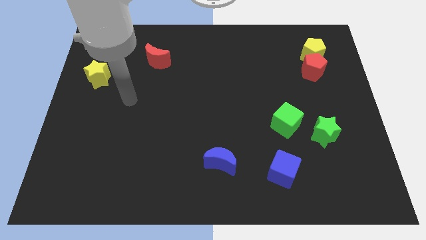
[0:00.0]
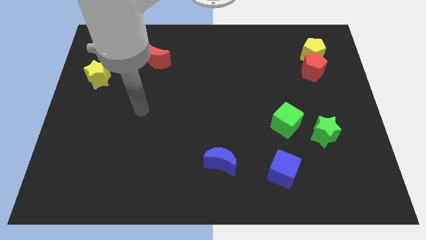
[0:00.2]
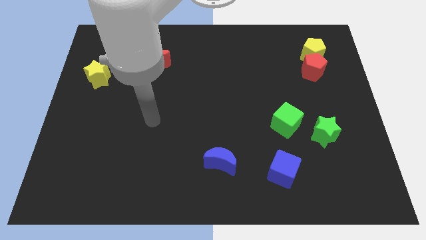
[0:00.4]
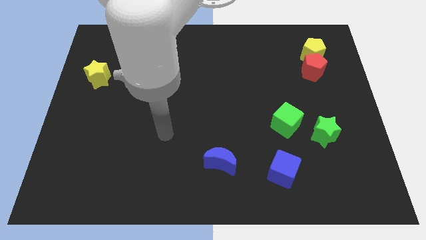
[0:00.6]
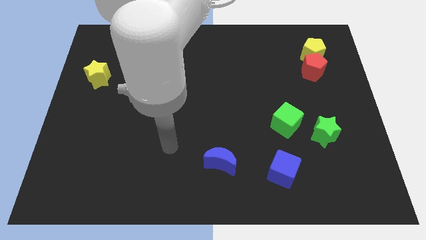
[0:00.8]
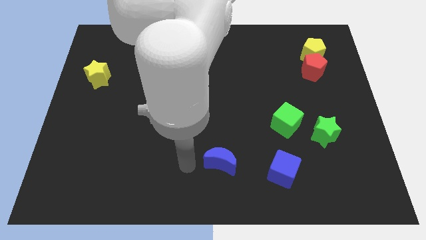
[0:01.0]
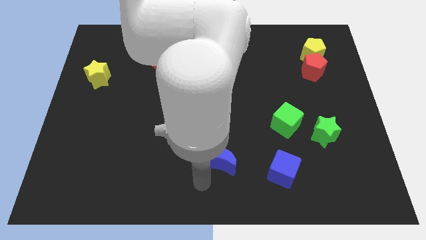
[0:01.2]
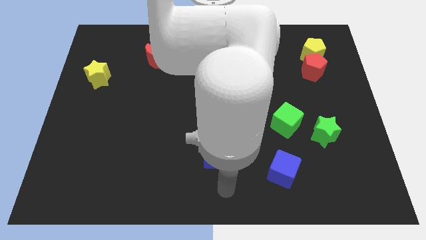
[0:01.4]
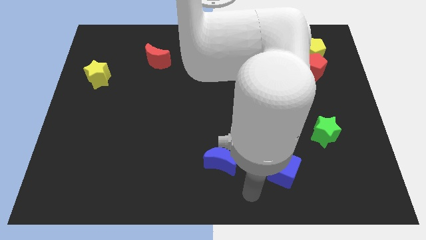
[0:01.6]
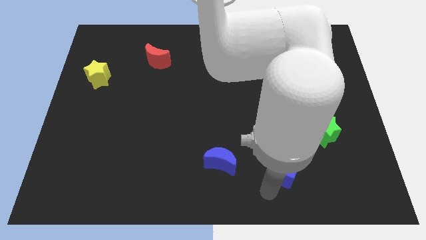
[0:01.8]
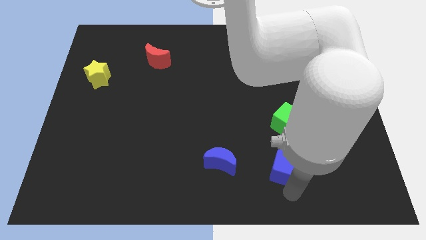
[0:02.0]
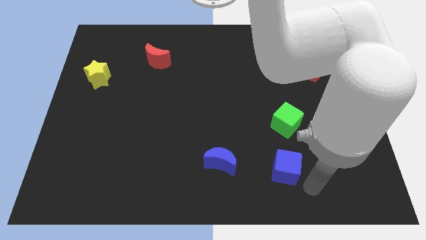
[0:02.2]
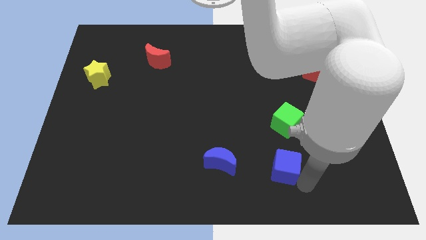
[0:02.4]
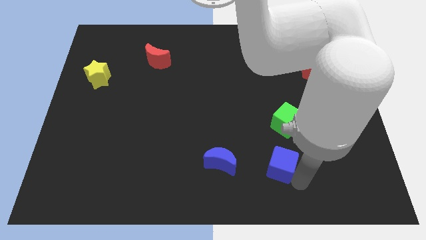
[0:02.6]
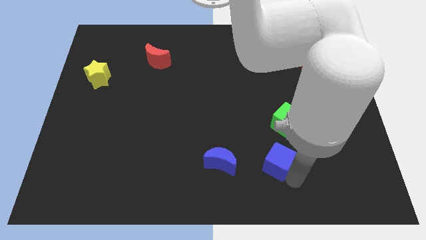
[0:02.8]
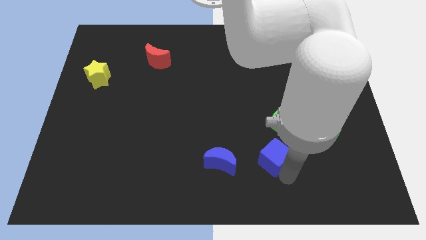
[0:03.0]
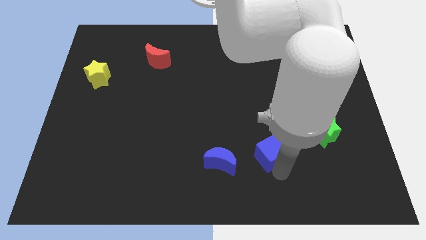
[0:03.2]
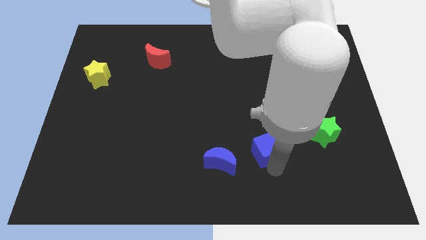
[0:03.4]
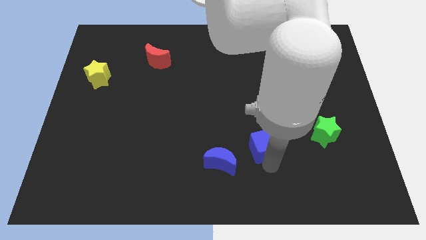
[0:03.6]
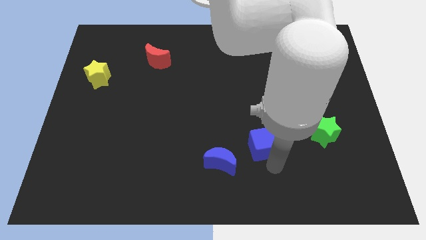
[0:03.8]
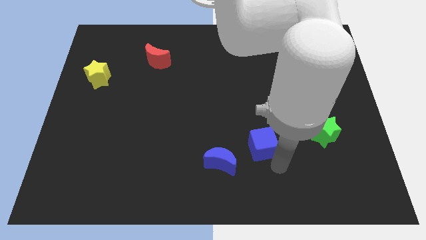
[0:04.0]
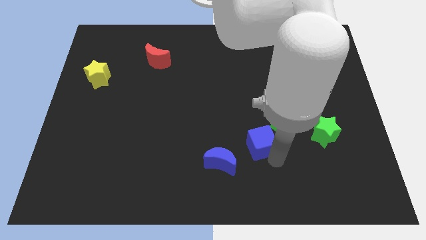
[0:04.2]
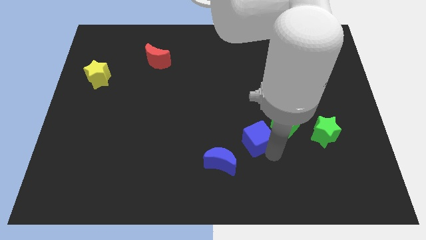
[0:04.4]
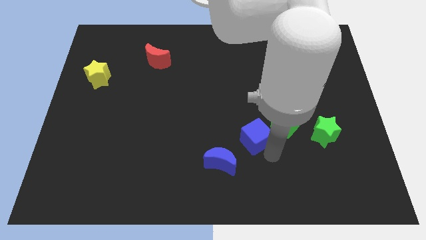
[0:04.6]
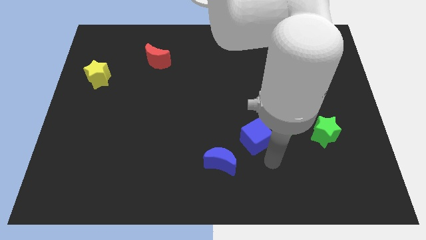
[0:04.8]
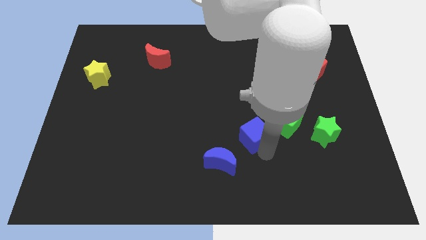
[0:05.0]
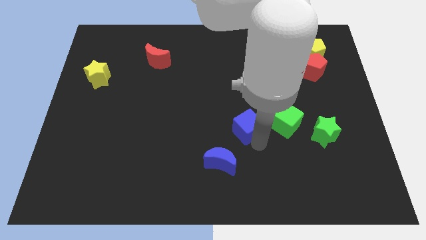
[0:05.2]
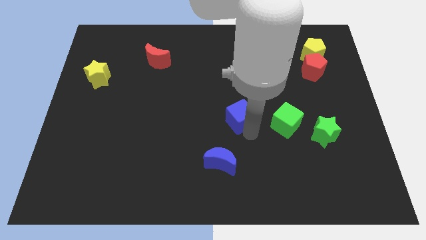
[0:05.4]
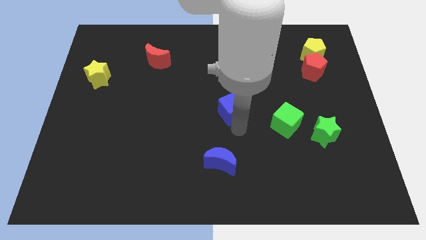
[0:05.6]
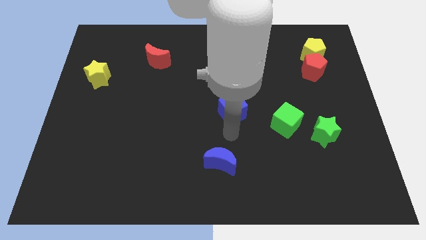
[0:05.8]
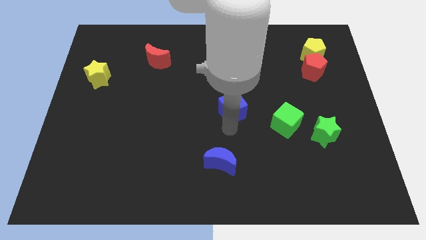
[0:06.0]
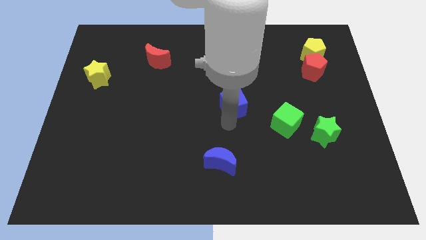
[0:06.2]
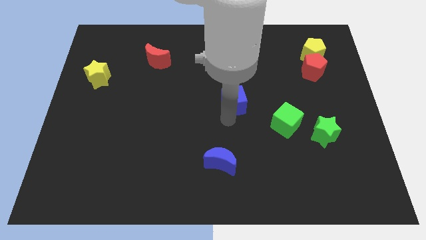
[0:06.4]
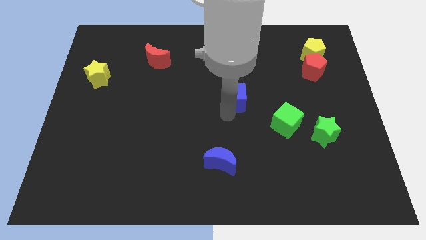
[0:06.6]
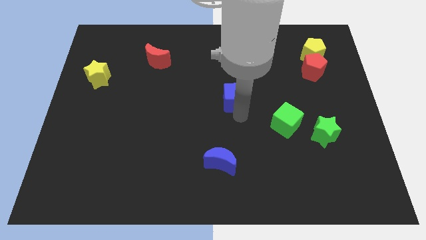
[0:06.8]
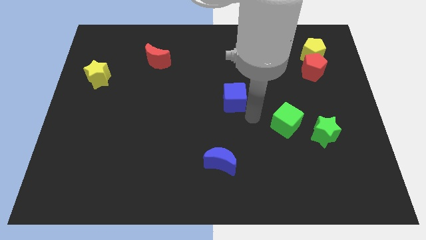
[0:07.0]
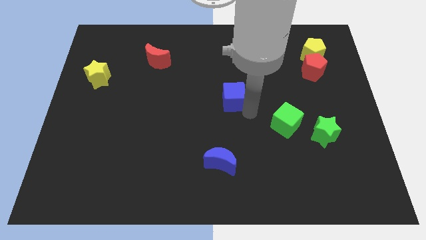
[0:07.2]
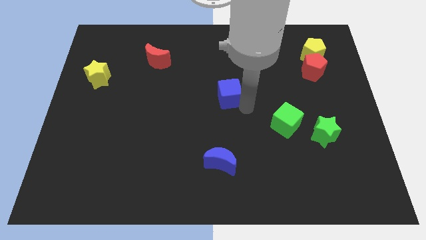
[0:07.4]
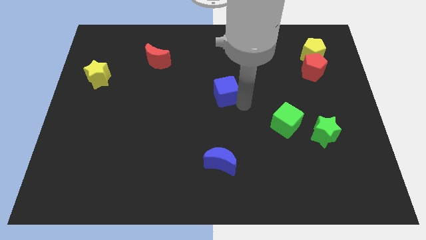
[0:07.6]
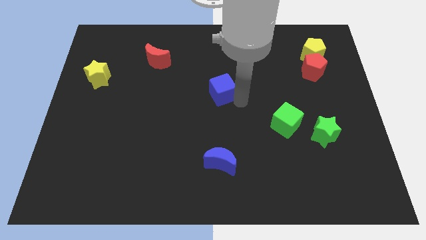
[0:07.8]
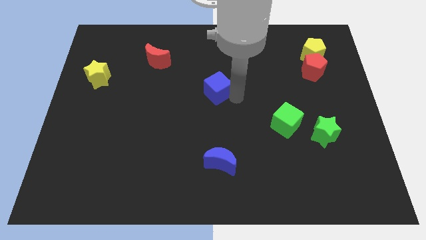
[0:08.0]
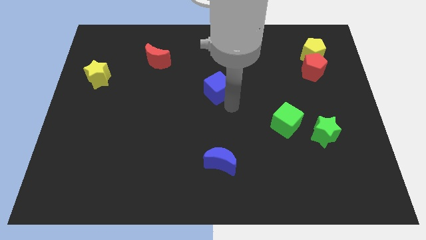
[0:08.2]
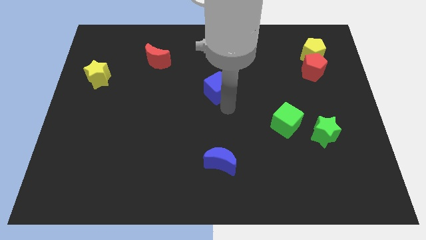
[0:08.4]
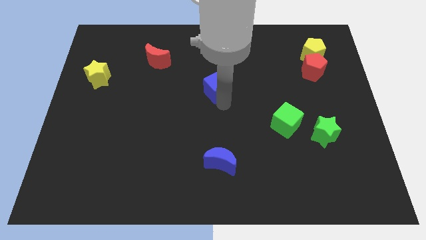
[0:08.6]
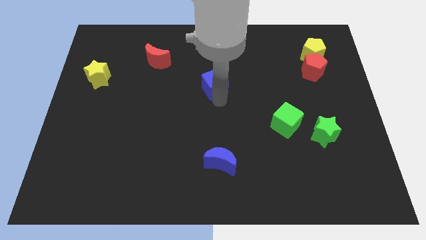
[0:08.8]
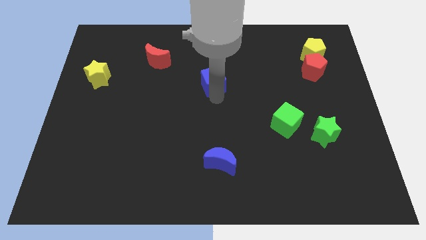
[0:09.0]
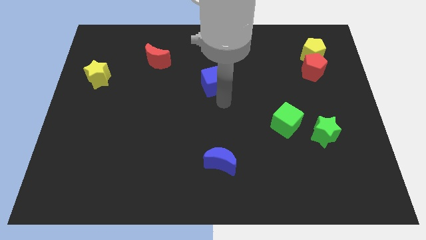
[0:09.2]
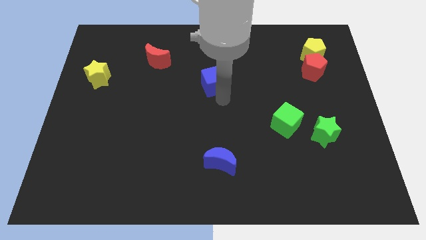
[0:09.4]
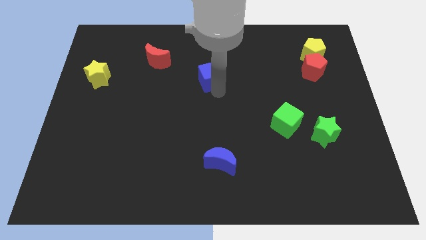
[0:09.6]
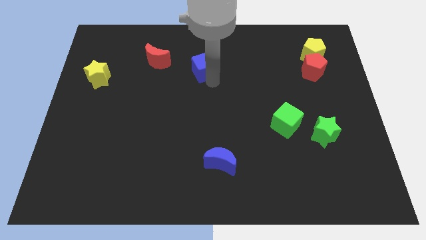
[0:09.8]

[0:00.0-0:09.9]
push the blue cube just right of the red moon

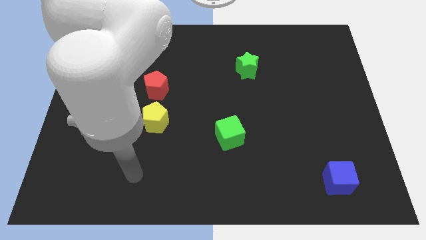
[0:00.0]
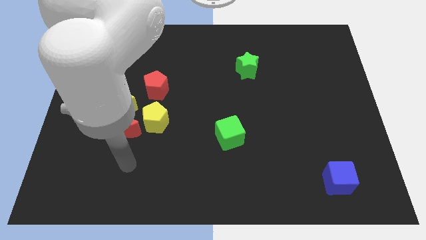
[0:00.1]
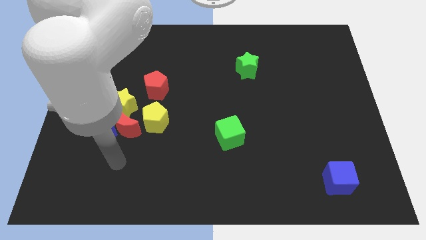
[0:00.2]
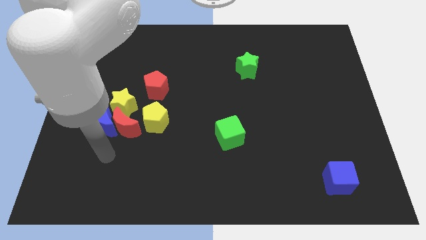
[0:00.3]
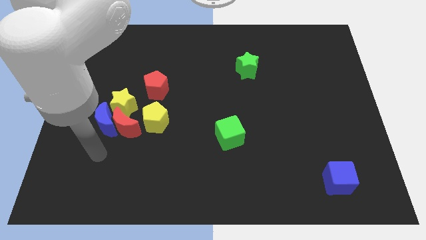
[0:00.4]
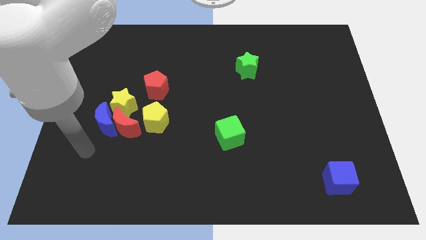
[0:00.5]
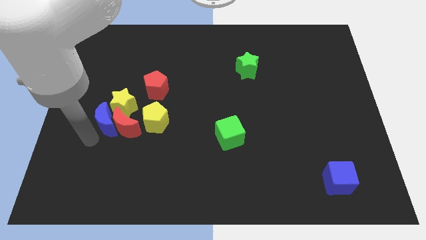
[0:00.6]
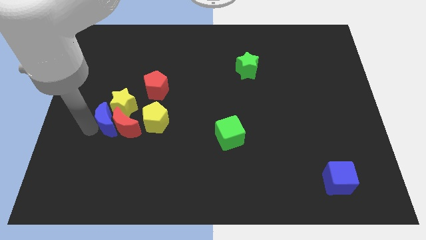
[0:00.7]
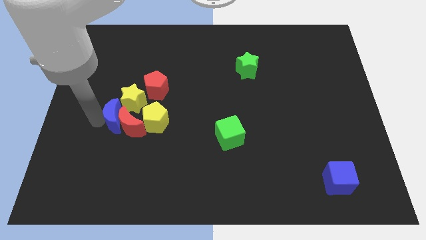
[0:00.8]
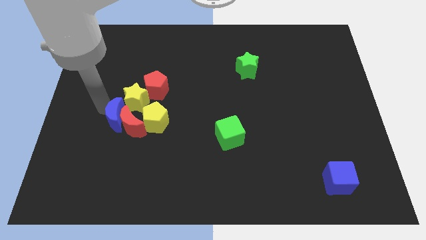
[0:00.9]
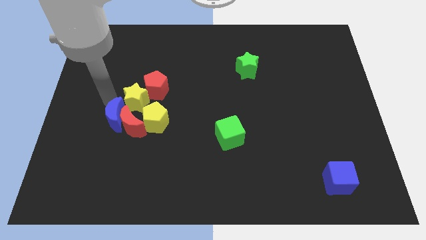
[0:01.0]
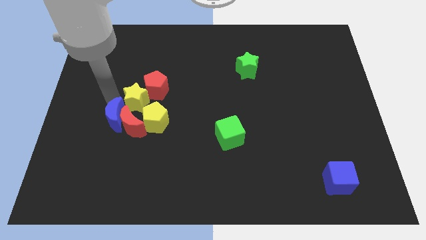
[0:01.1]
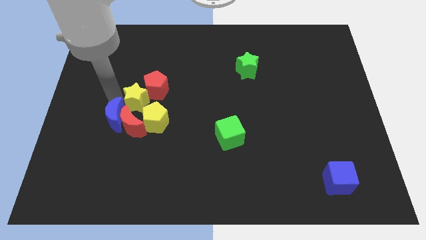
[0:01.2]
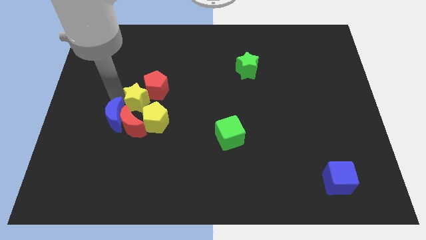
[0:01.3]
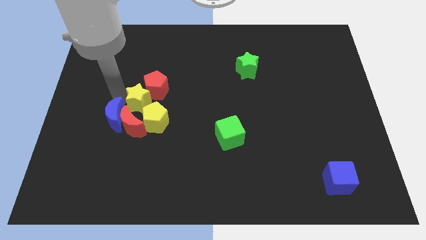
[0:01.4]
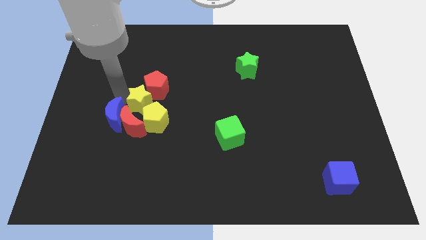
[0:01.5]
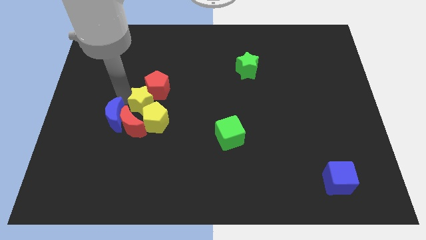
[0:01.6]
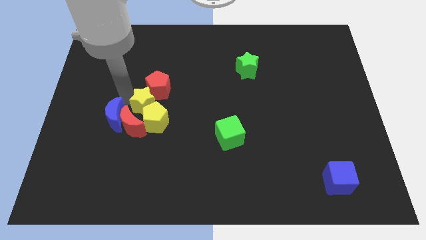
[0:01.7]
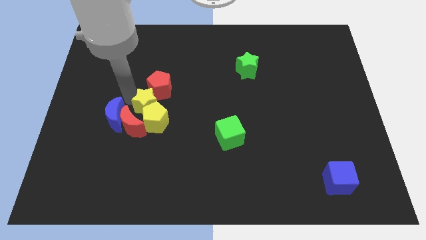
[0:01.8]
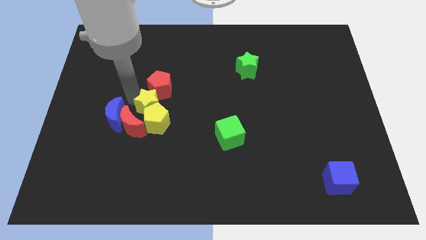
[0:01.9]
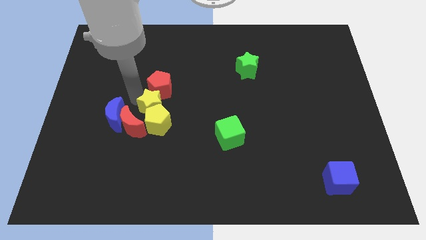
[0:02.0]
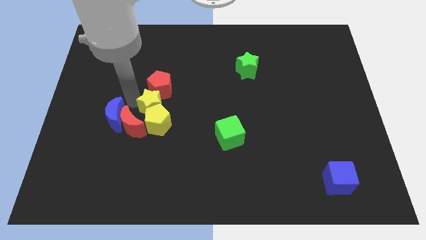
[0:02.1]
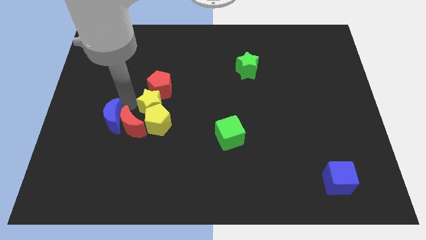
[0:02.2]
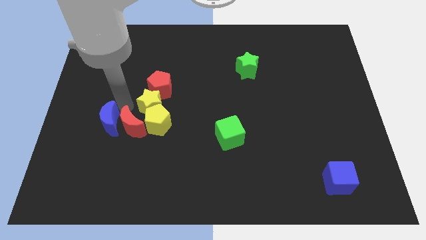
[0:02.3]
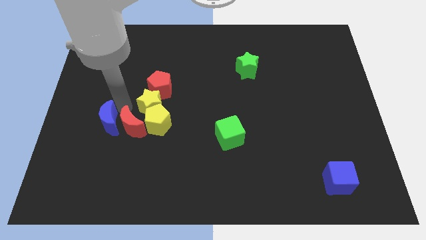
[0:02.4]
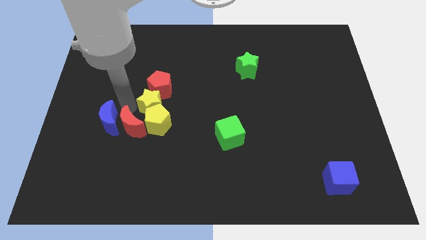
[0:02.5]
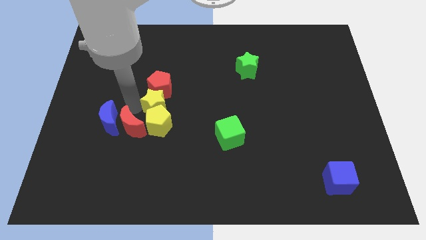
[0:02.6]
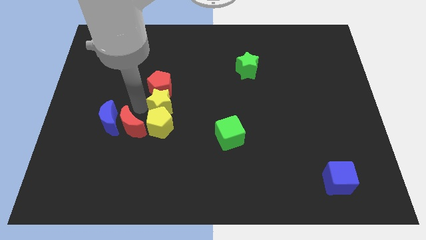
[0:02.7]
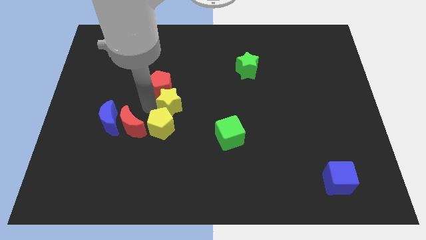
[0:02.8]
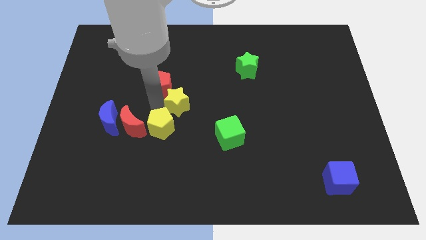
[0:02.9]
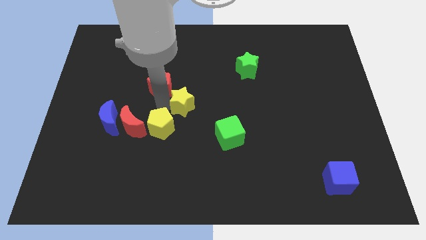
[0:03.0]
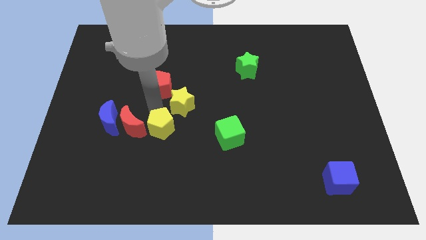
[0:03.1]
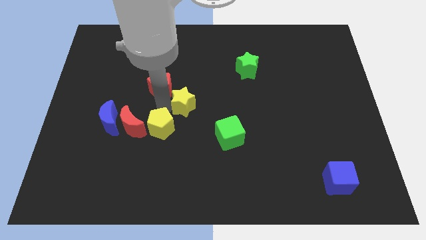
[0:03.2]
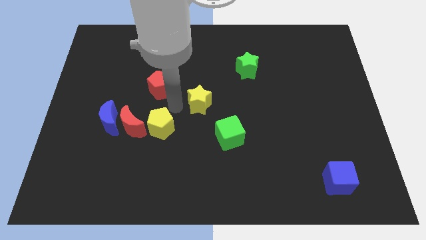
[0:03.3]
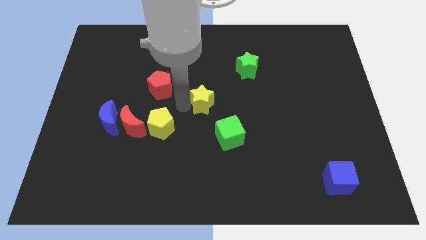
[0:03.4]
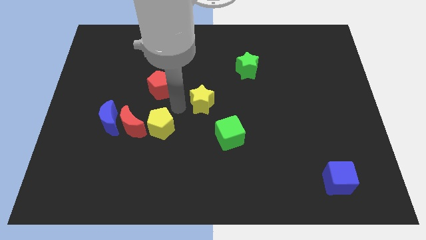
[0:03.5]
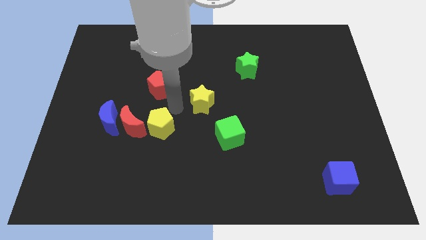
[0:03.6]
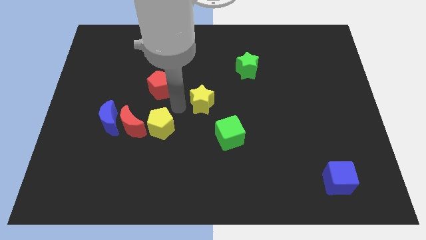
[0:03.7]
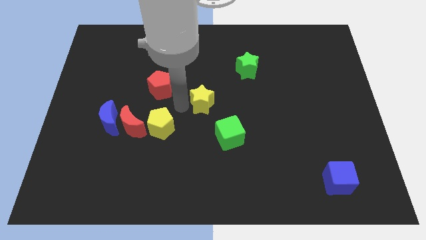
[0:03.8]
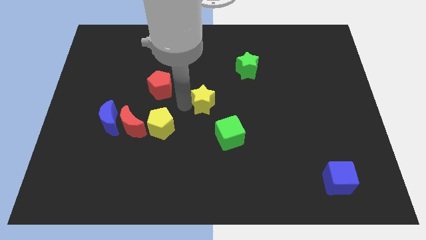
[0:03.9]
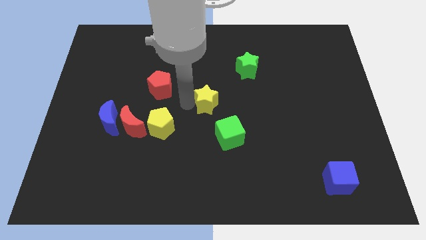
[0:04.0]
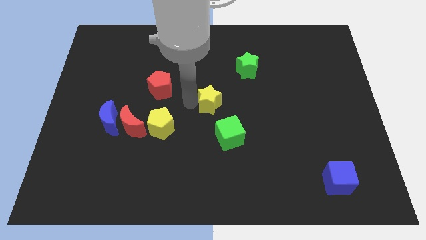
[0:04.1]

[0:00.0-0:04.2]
slide the yellow star to the top of the green cube
